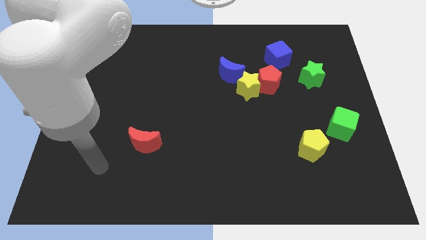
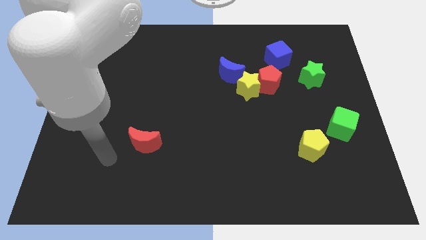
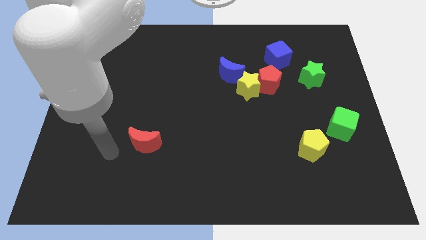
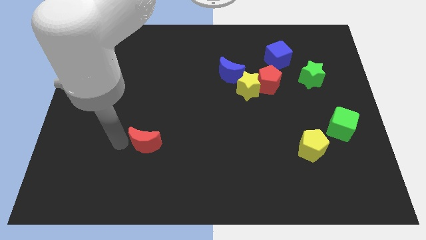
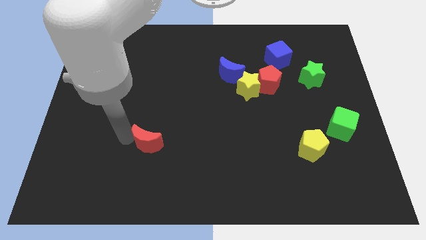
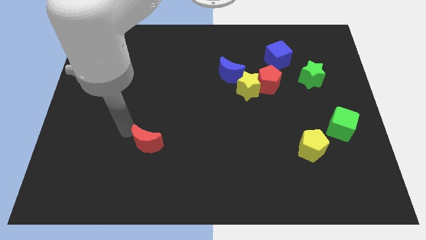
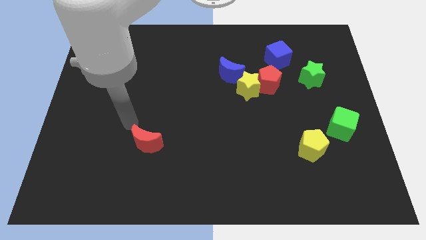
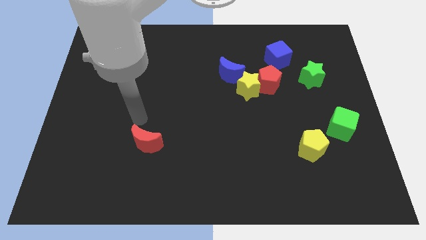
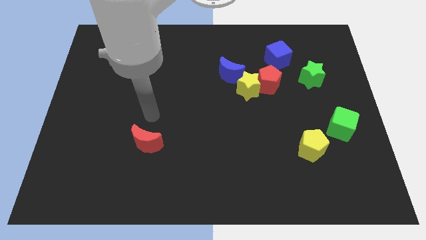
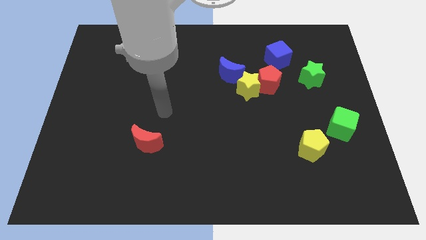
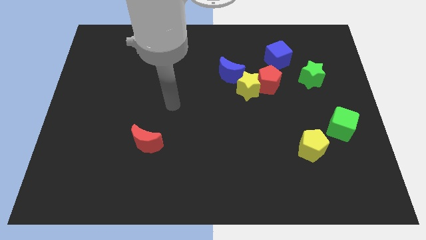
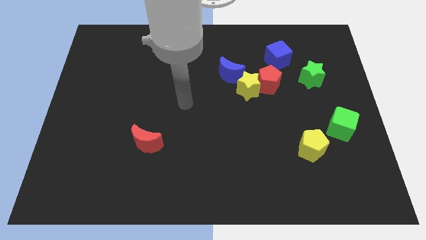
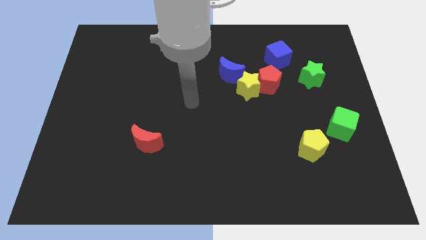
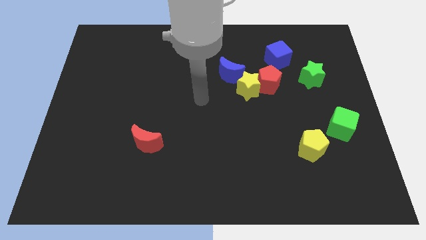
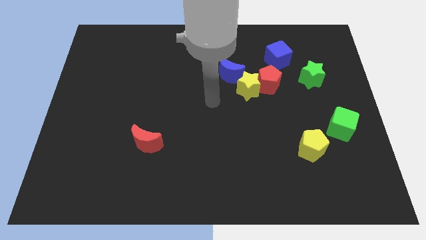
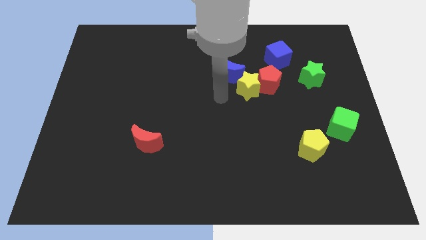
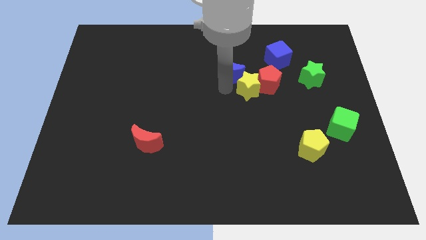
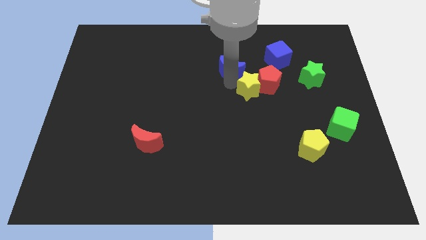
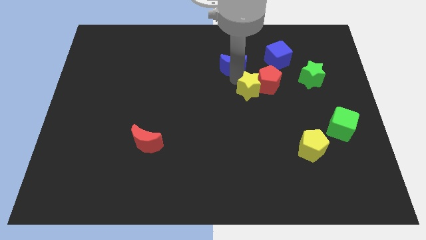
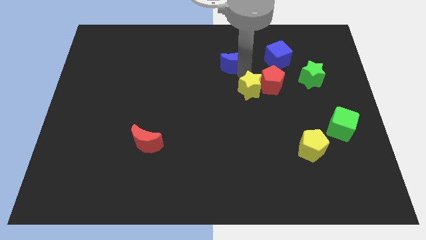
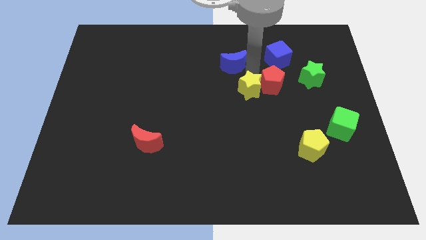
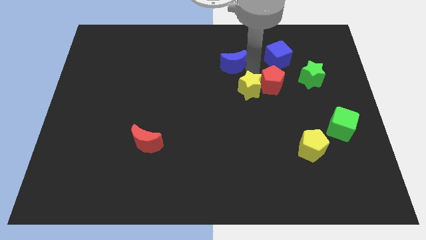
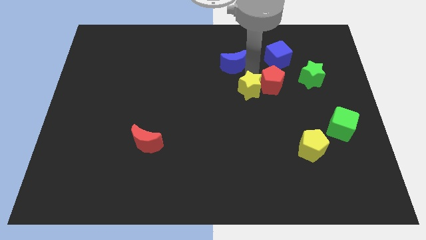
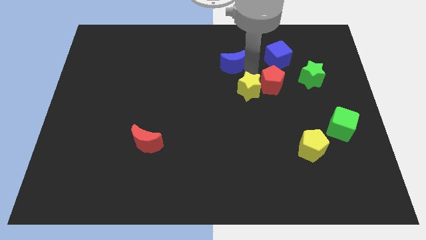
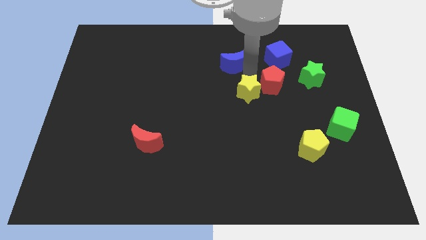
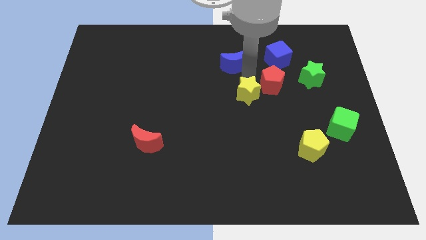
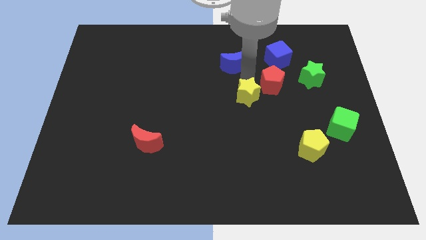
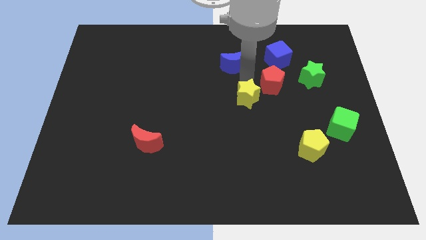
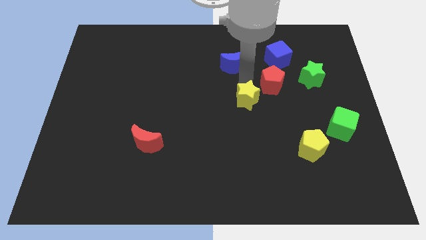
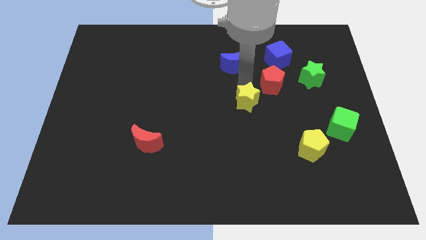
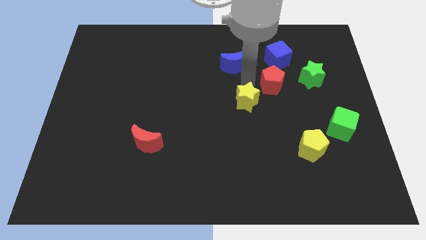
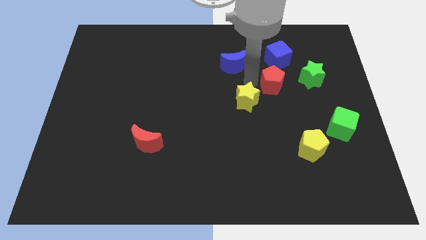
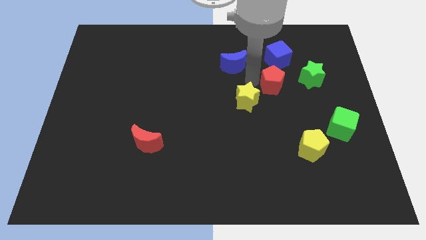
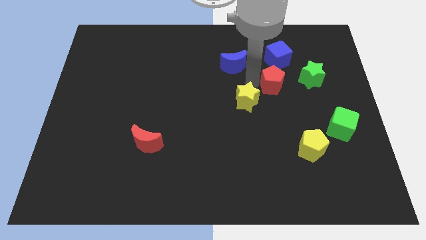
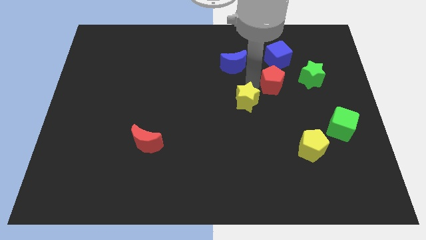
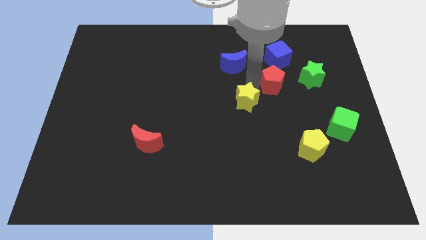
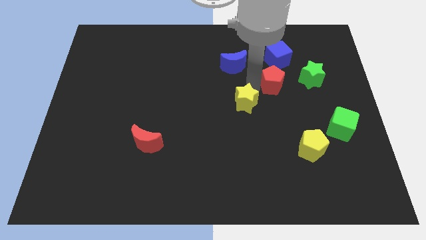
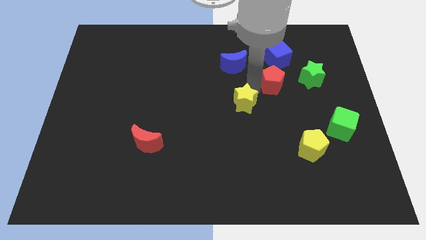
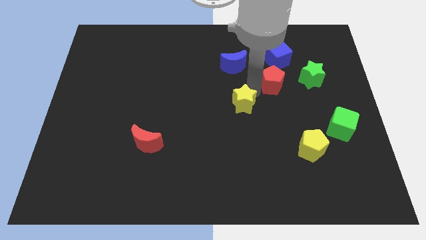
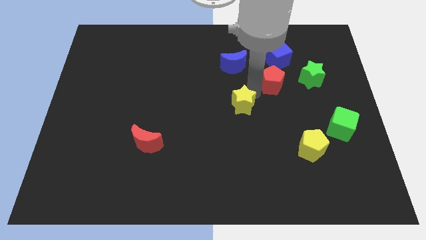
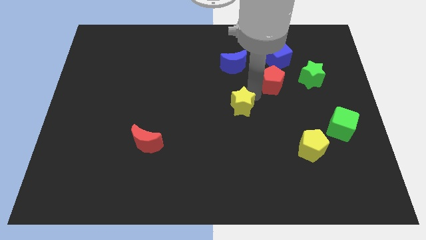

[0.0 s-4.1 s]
separate the yellow star from the red pentagon and blue moon

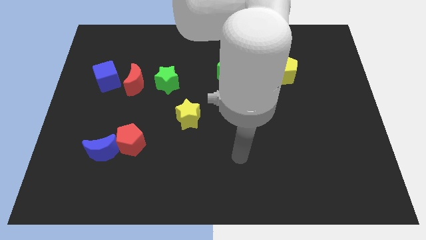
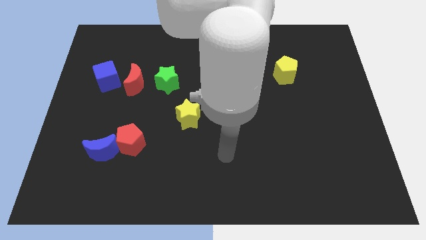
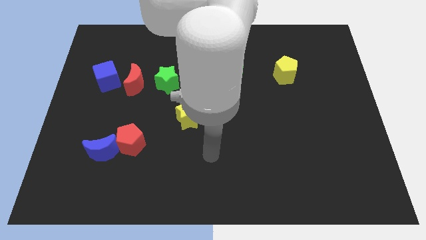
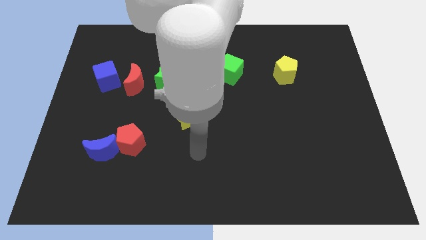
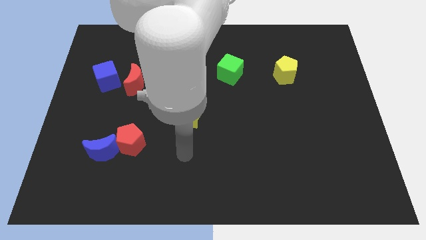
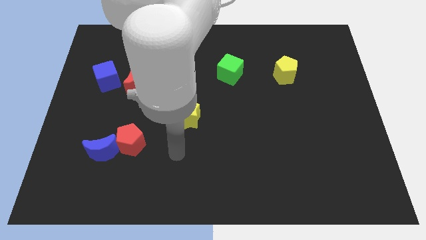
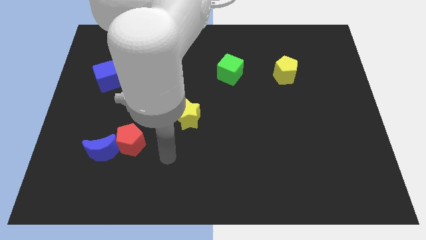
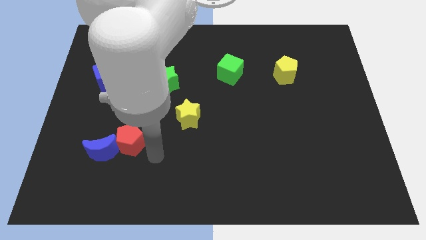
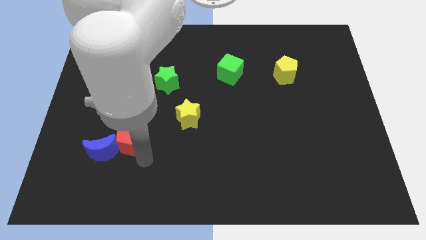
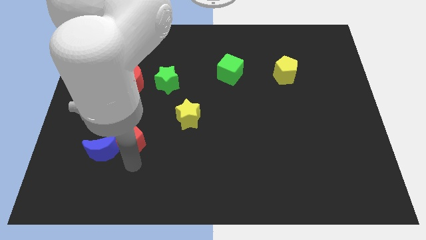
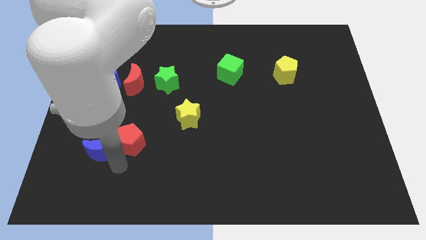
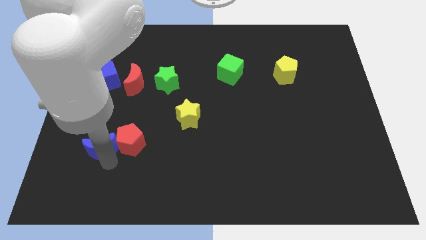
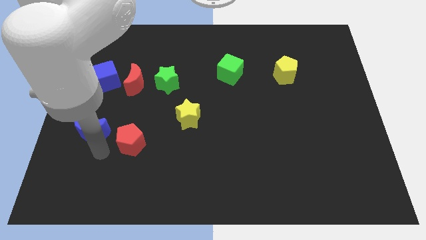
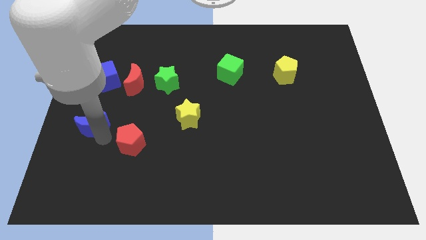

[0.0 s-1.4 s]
move the red pentagon away from the blue moon

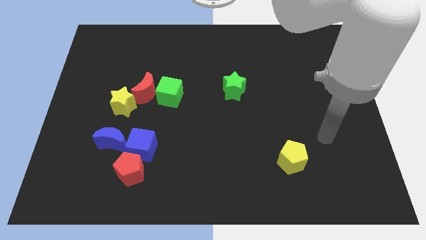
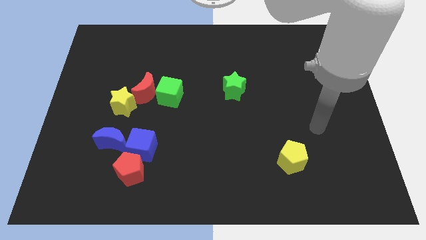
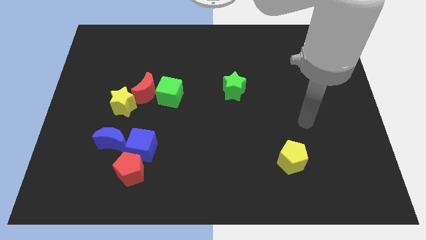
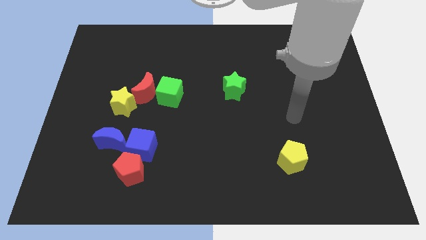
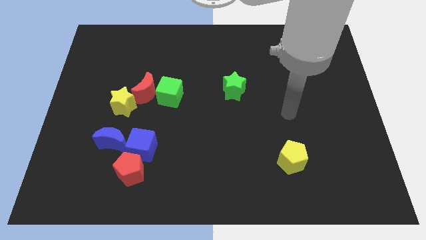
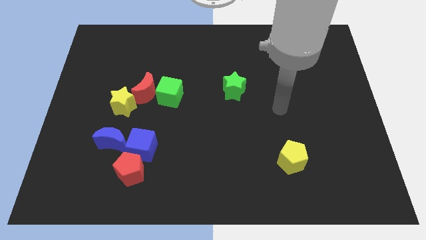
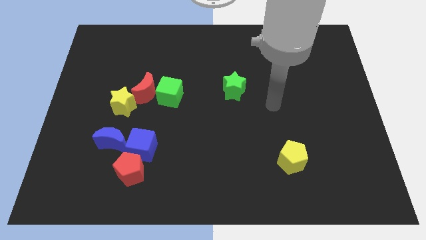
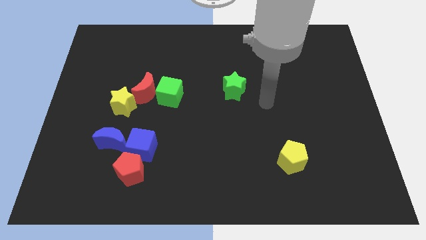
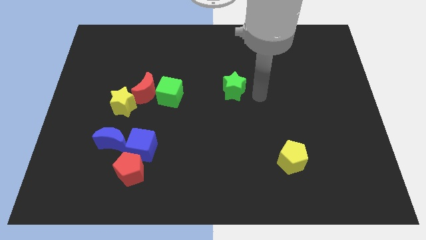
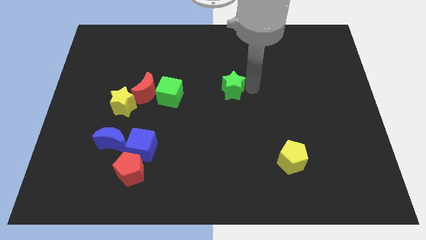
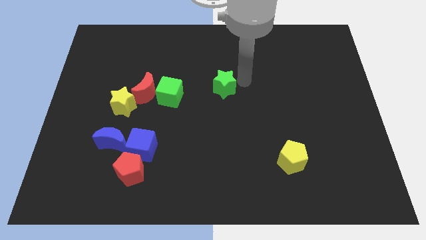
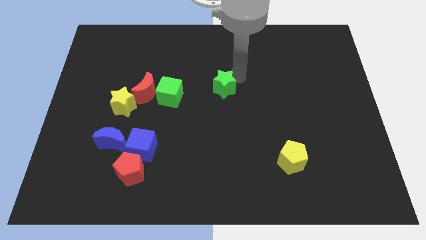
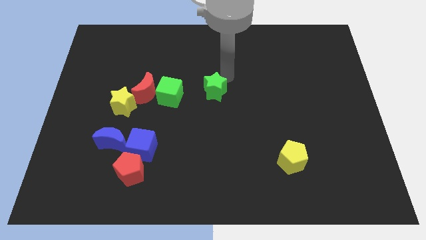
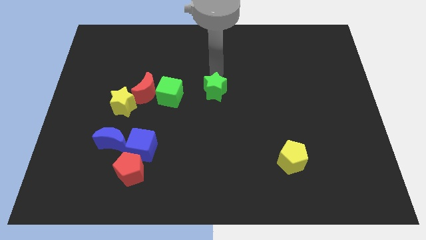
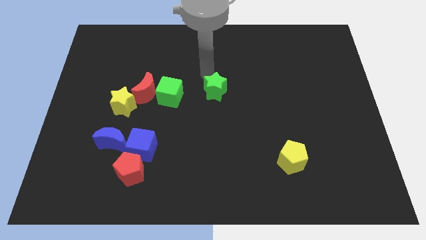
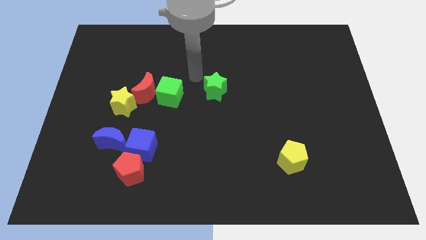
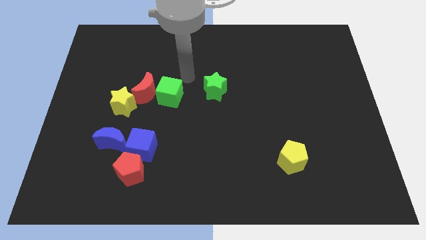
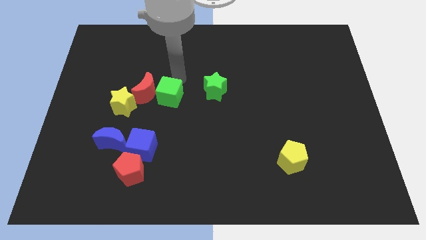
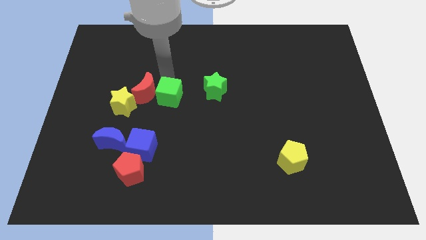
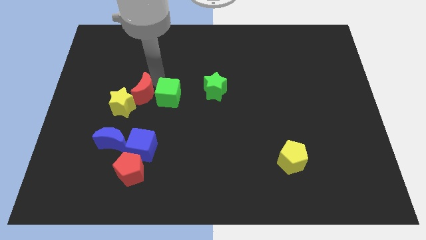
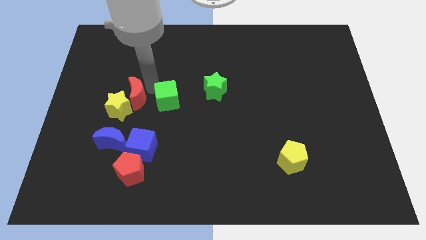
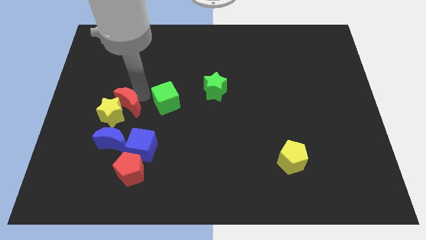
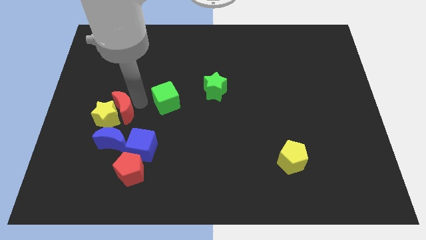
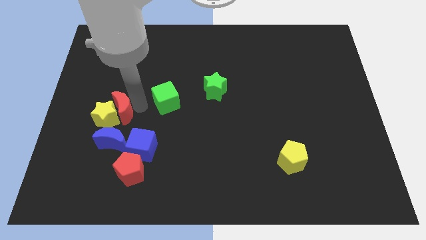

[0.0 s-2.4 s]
move the green cube away from the red moon

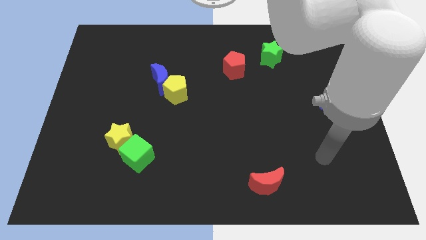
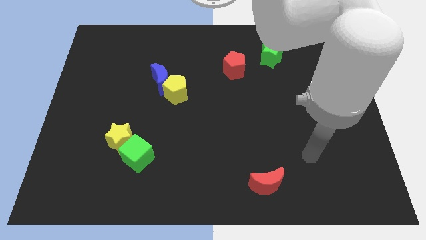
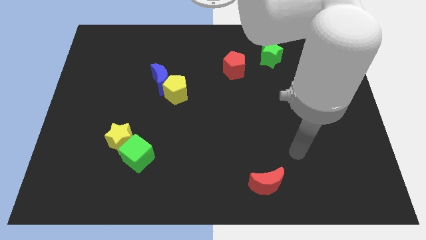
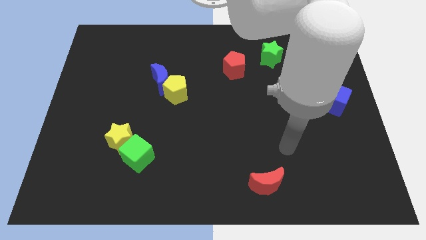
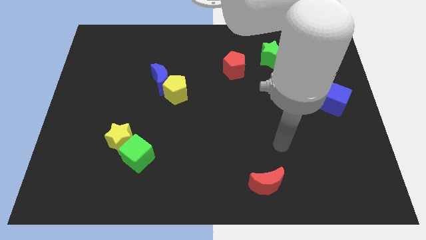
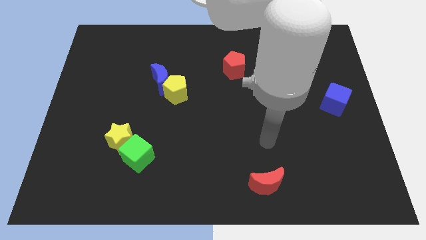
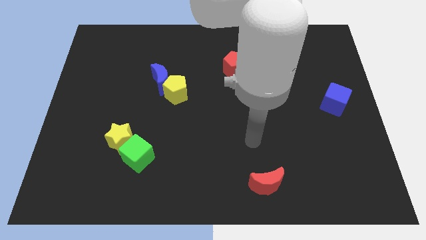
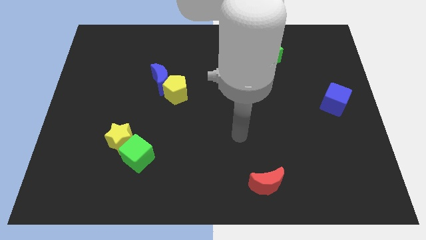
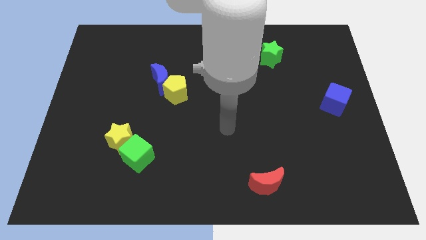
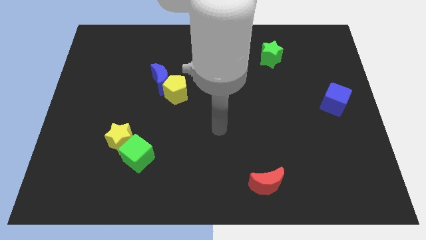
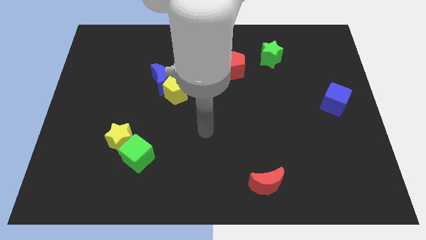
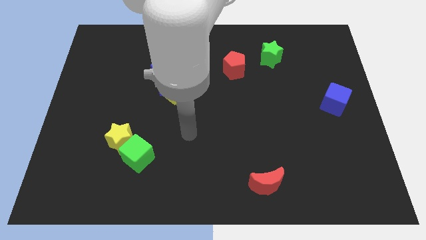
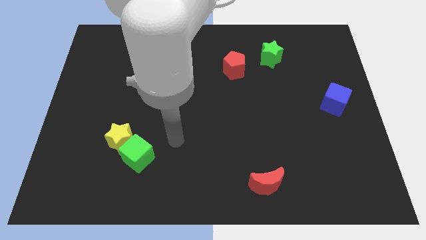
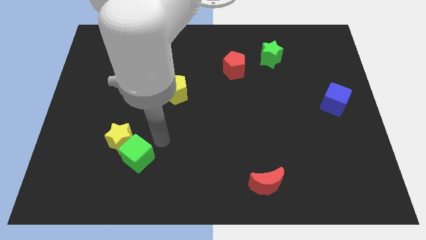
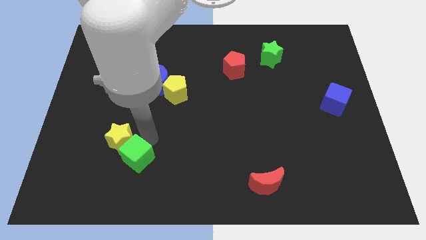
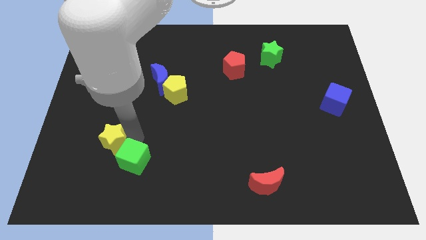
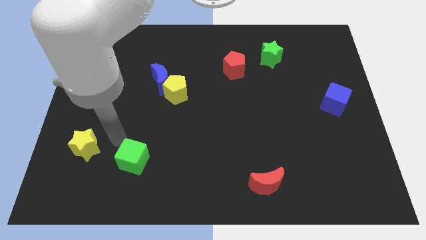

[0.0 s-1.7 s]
move the green cube away from the yellow star
